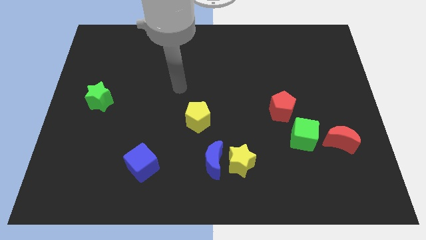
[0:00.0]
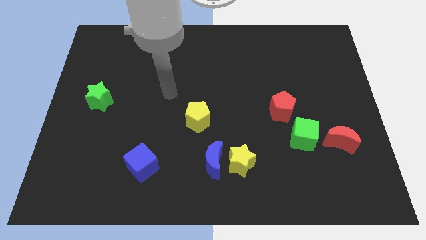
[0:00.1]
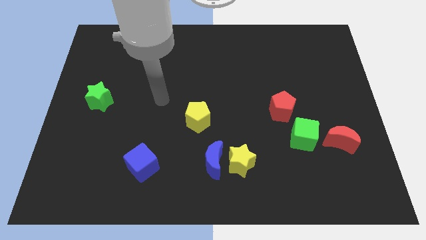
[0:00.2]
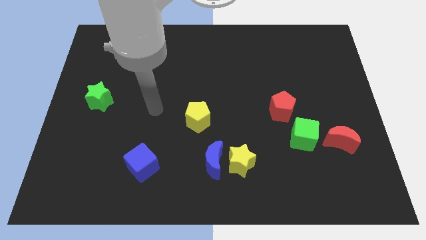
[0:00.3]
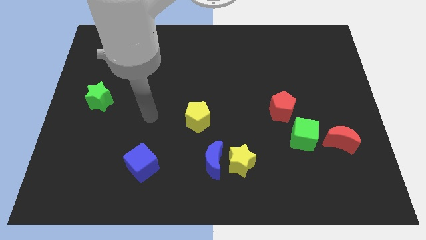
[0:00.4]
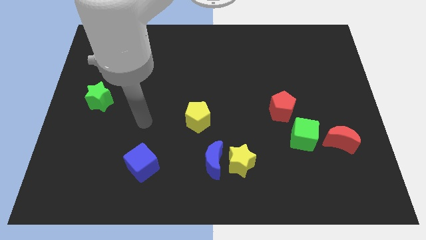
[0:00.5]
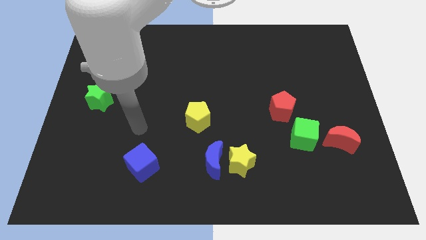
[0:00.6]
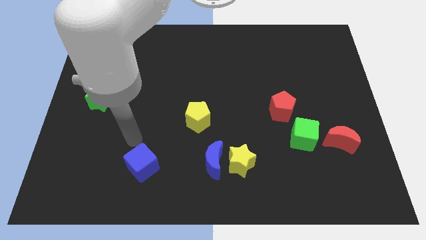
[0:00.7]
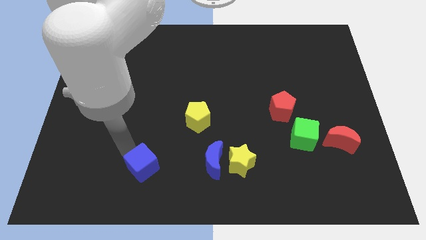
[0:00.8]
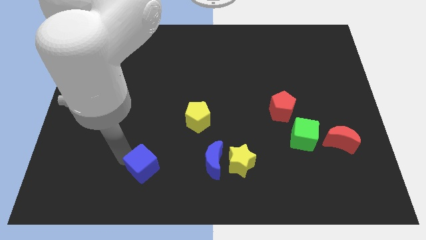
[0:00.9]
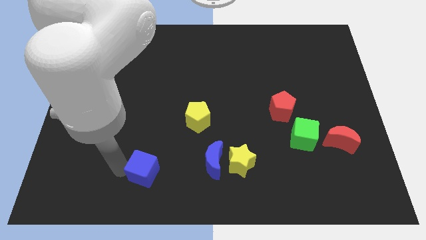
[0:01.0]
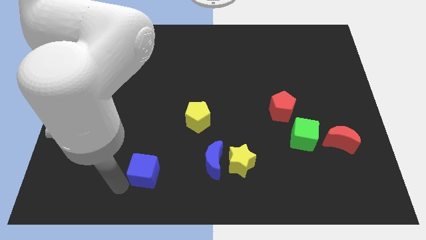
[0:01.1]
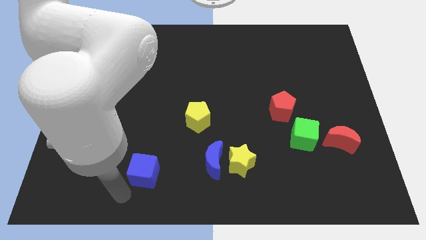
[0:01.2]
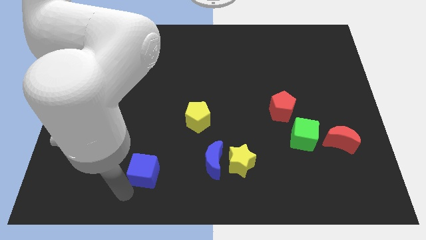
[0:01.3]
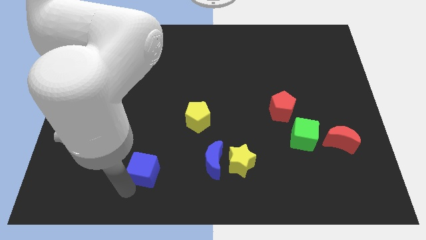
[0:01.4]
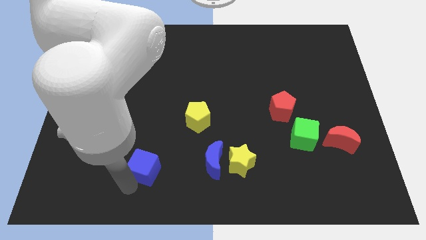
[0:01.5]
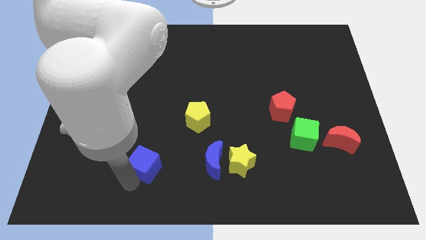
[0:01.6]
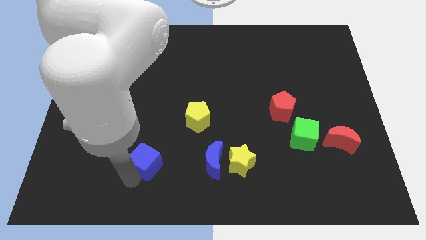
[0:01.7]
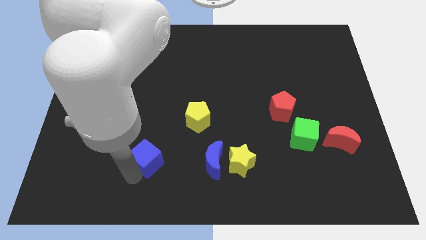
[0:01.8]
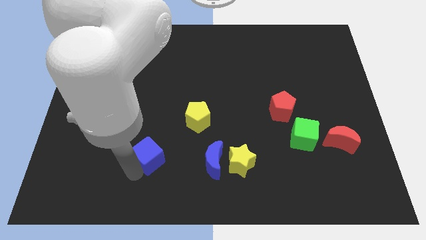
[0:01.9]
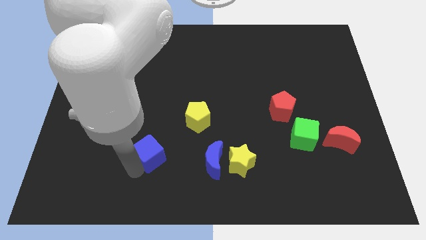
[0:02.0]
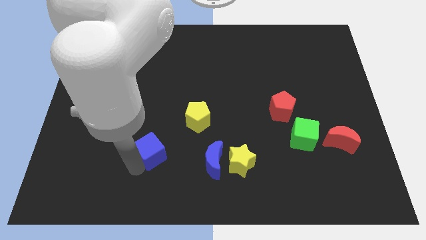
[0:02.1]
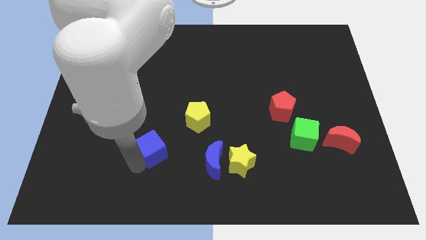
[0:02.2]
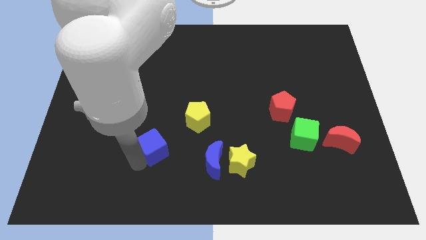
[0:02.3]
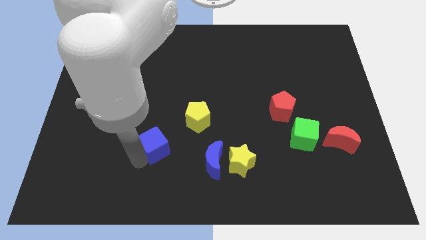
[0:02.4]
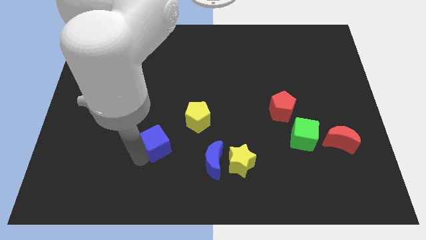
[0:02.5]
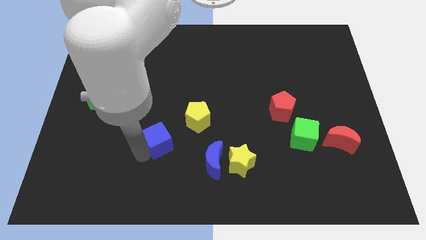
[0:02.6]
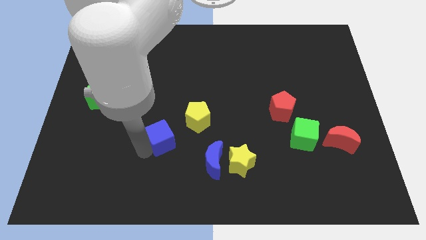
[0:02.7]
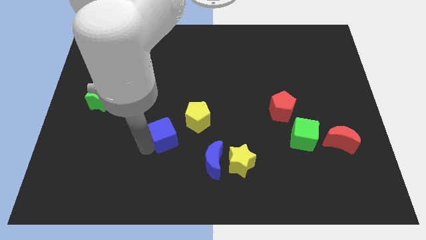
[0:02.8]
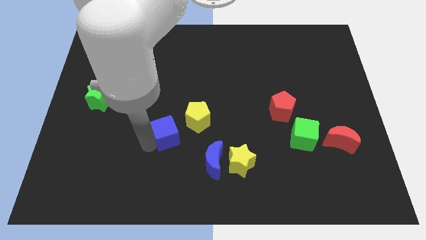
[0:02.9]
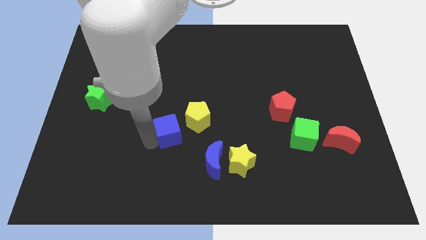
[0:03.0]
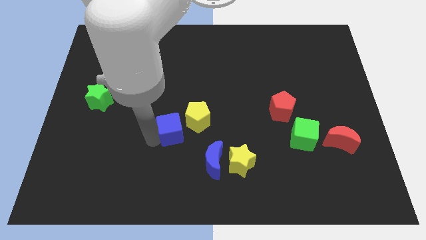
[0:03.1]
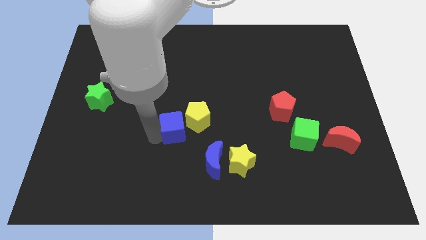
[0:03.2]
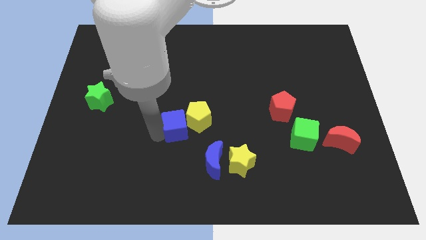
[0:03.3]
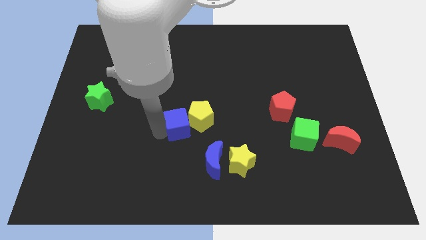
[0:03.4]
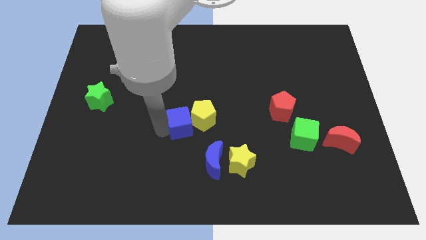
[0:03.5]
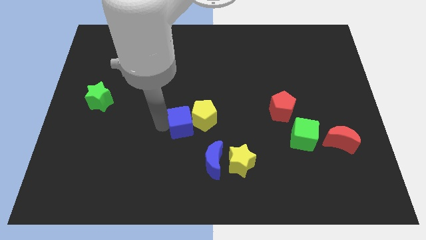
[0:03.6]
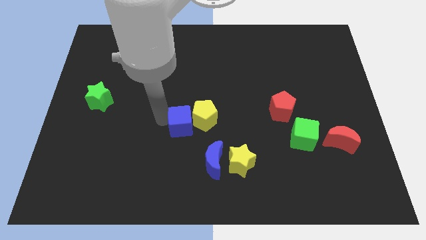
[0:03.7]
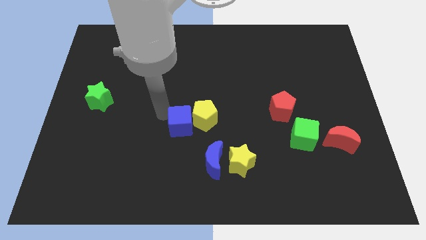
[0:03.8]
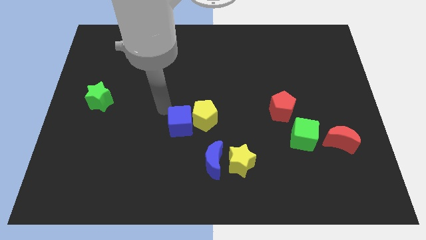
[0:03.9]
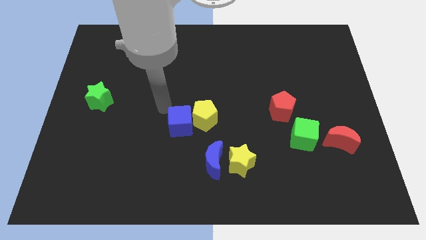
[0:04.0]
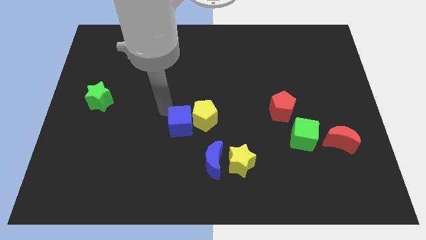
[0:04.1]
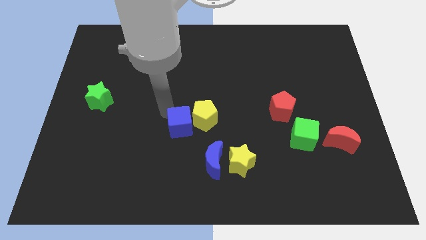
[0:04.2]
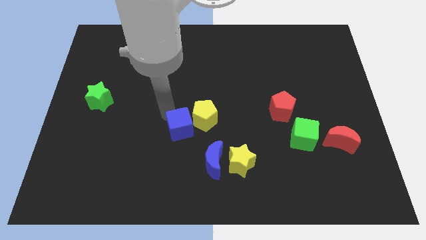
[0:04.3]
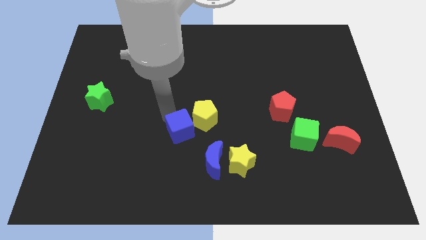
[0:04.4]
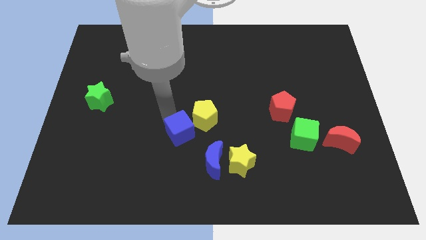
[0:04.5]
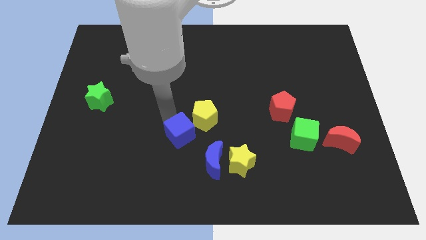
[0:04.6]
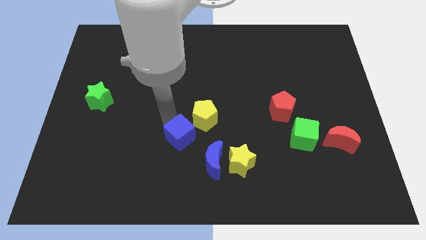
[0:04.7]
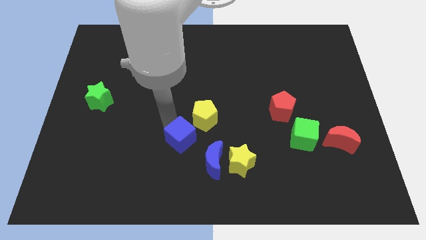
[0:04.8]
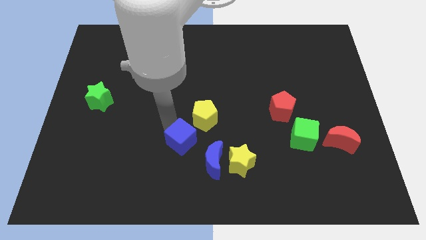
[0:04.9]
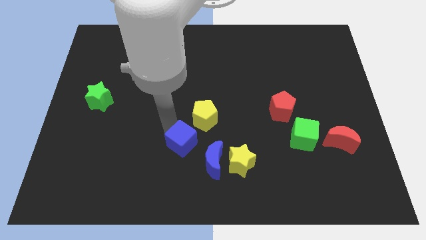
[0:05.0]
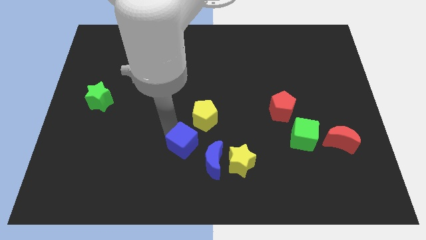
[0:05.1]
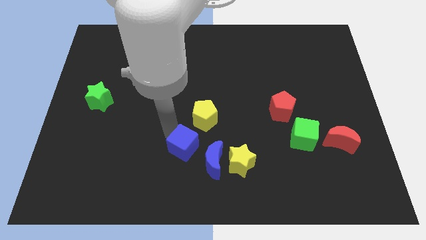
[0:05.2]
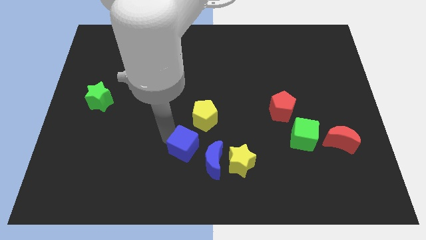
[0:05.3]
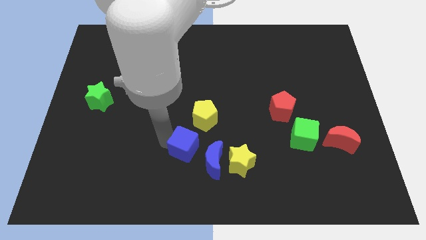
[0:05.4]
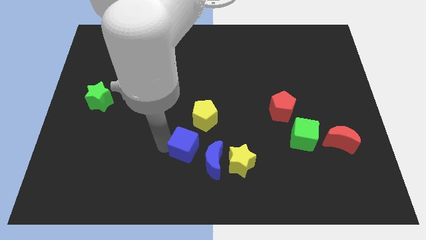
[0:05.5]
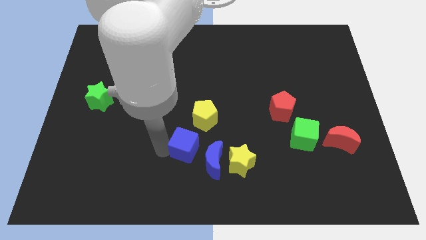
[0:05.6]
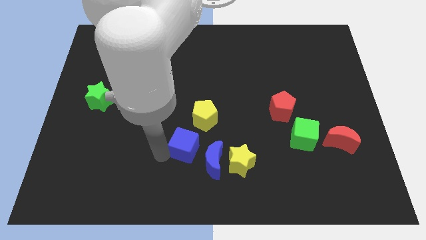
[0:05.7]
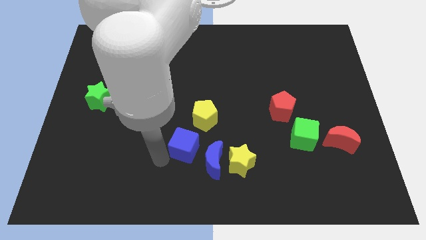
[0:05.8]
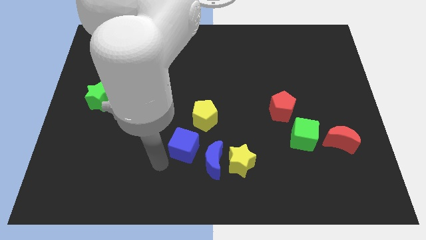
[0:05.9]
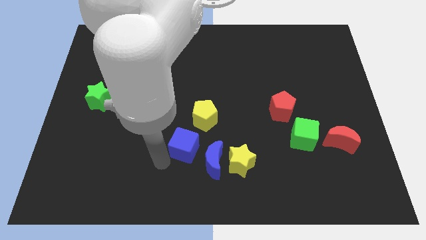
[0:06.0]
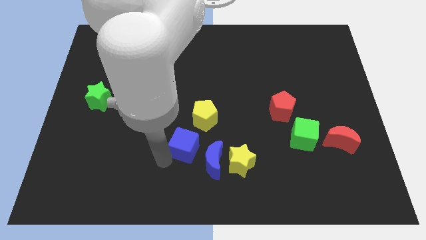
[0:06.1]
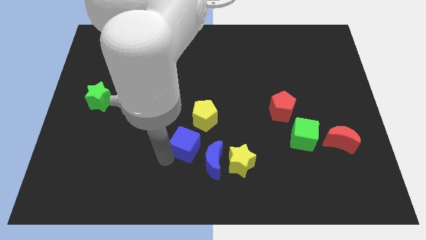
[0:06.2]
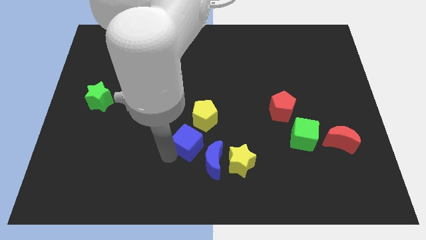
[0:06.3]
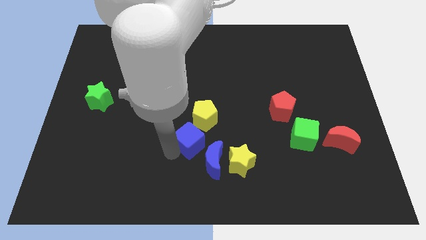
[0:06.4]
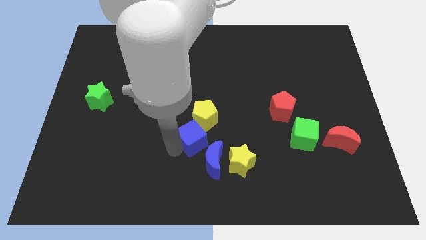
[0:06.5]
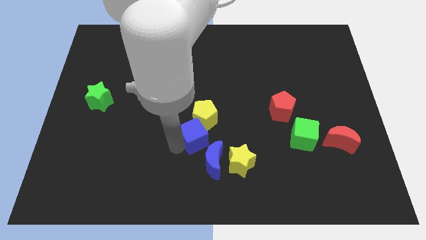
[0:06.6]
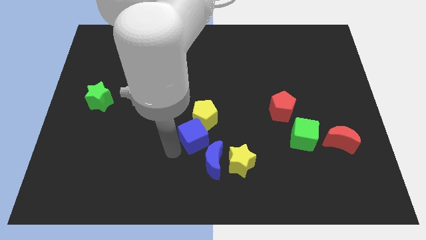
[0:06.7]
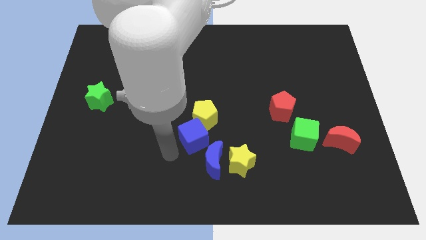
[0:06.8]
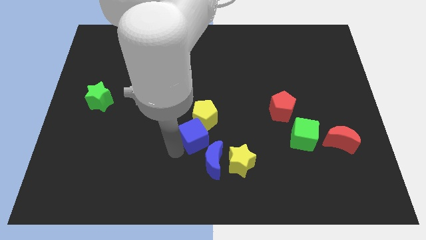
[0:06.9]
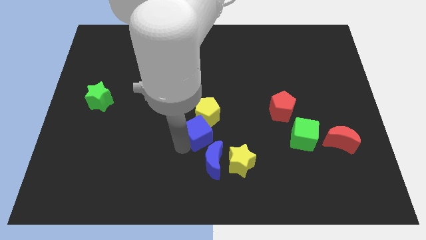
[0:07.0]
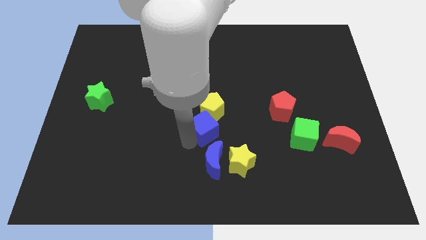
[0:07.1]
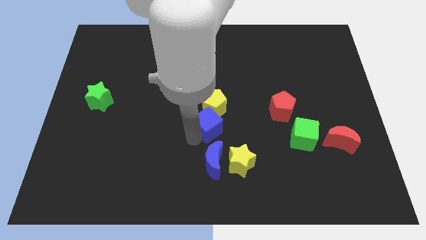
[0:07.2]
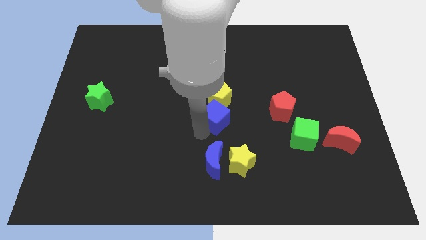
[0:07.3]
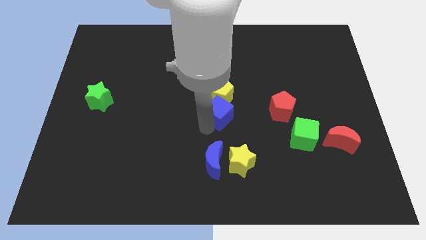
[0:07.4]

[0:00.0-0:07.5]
slide the blue cube up and right

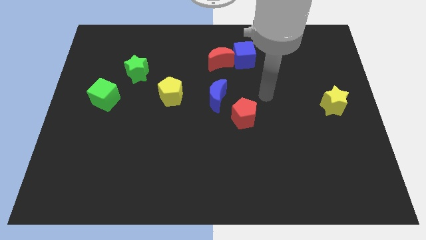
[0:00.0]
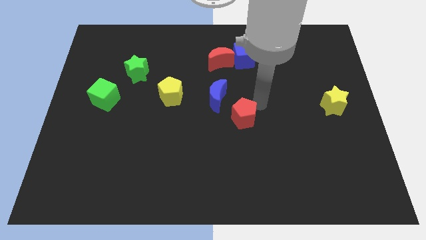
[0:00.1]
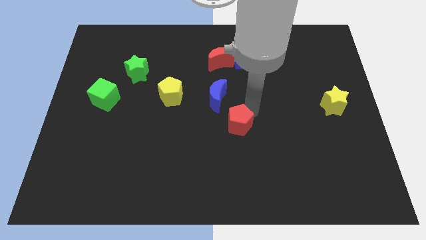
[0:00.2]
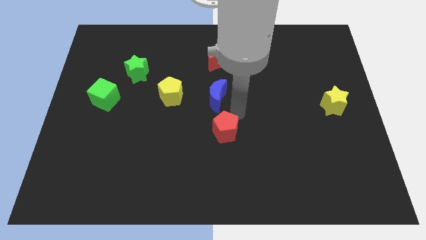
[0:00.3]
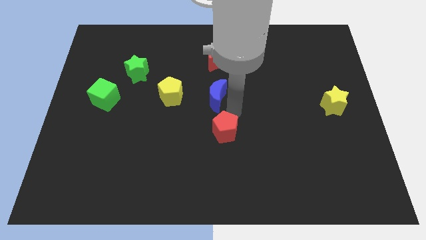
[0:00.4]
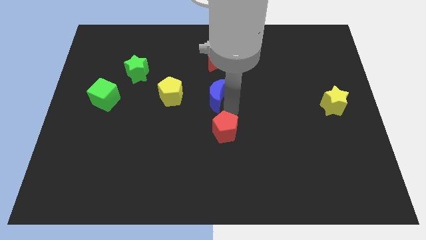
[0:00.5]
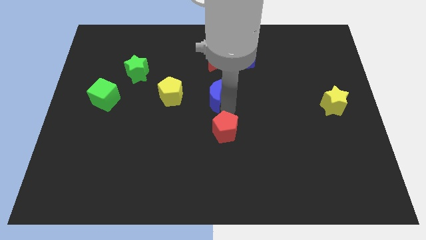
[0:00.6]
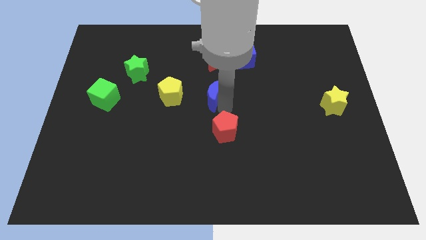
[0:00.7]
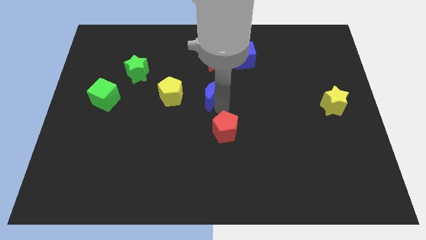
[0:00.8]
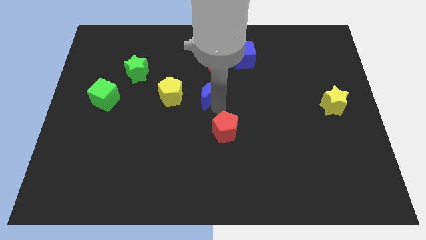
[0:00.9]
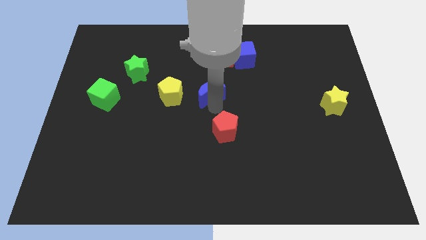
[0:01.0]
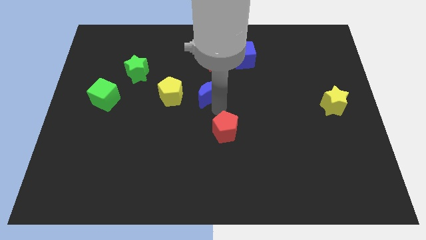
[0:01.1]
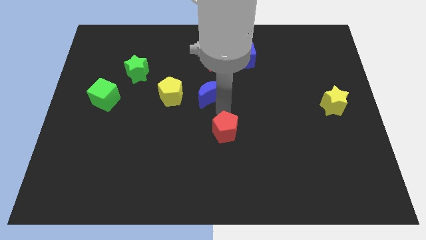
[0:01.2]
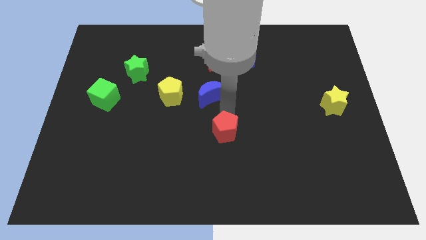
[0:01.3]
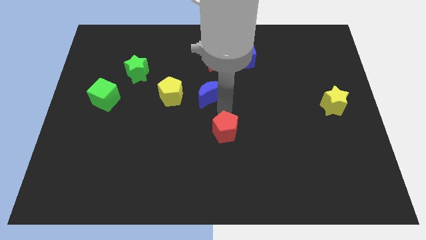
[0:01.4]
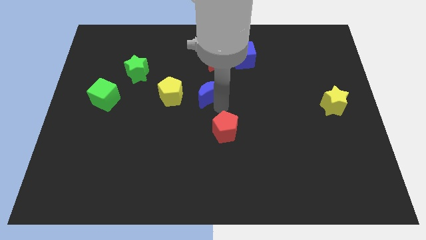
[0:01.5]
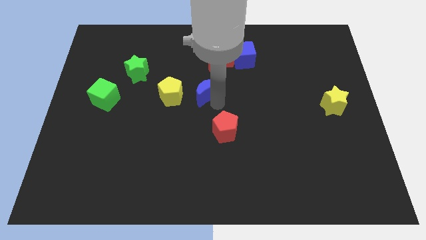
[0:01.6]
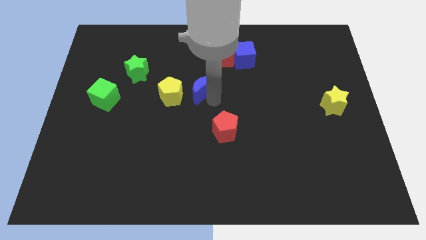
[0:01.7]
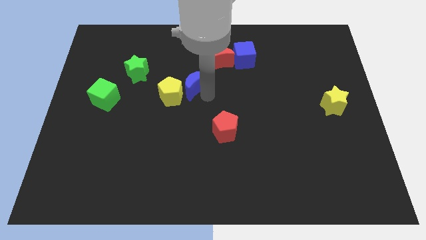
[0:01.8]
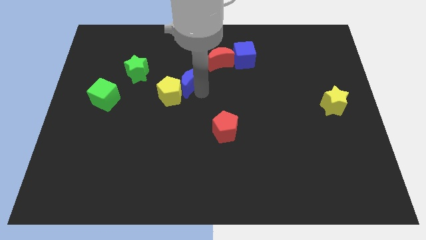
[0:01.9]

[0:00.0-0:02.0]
slightly push the blue moon upwards and then to the left
